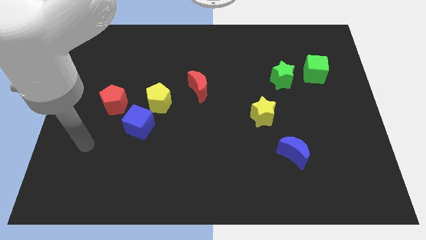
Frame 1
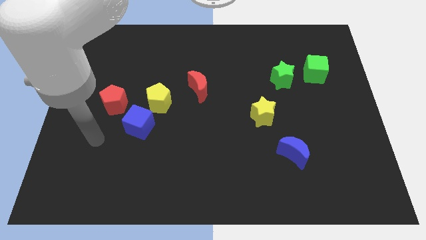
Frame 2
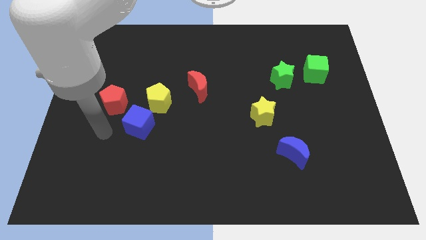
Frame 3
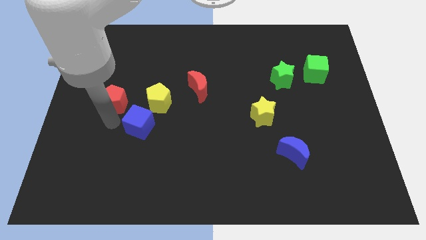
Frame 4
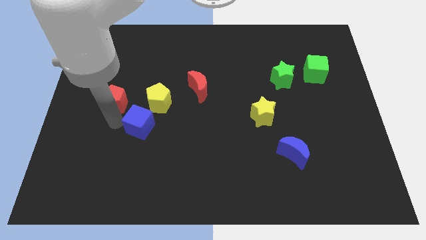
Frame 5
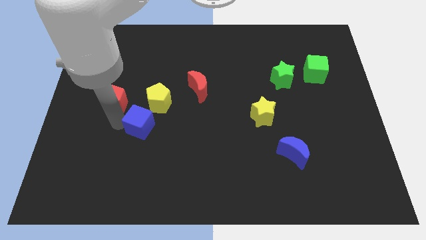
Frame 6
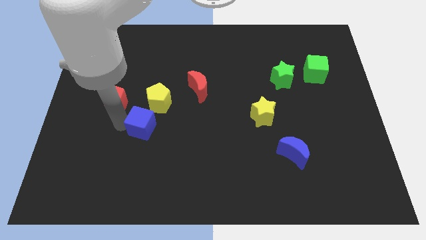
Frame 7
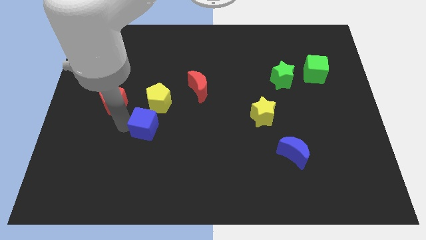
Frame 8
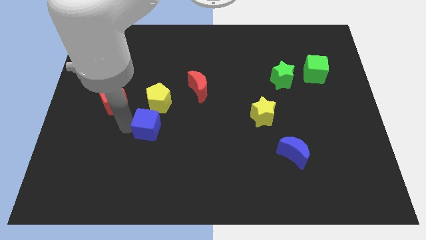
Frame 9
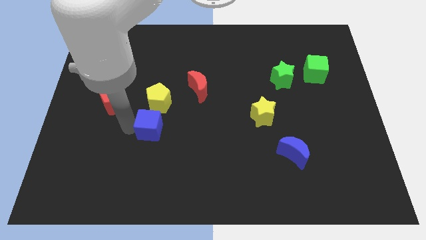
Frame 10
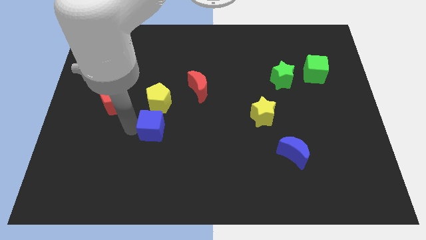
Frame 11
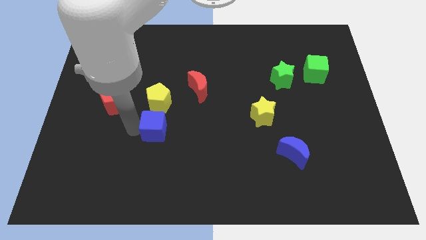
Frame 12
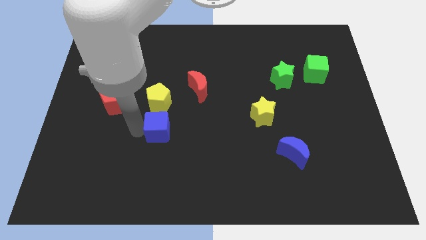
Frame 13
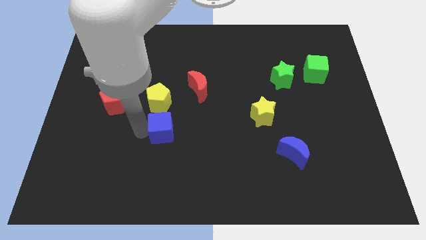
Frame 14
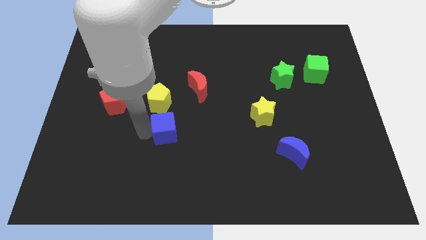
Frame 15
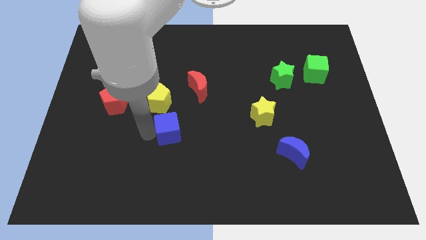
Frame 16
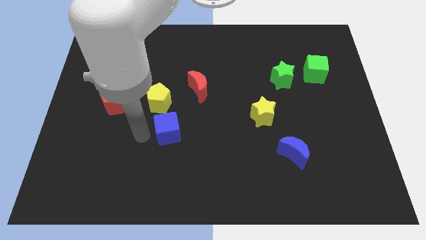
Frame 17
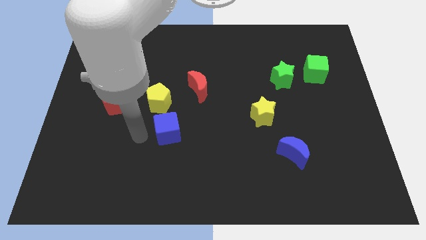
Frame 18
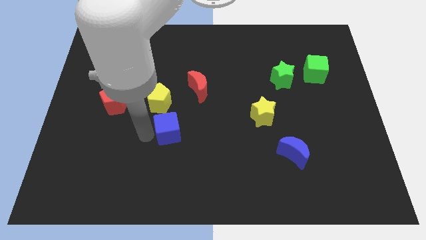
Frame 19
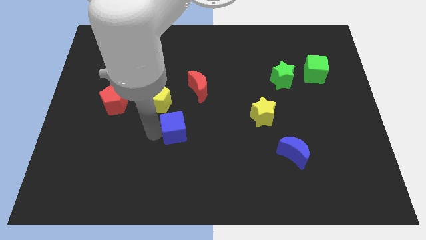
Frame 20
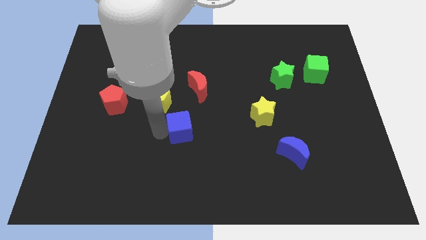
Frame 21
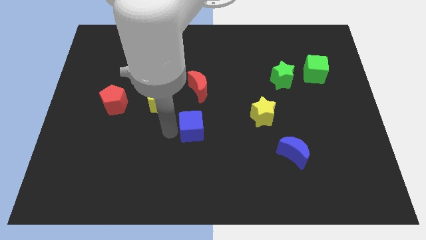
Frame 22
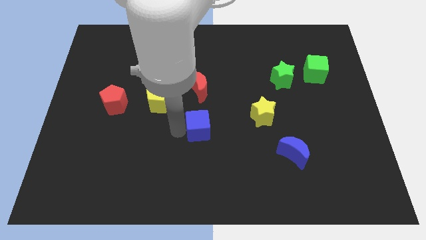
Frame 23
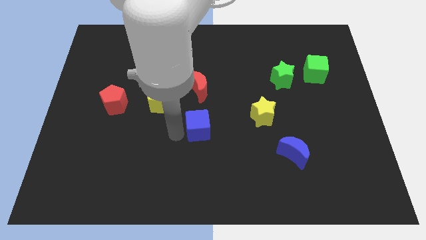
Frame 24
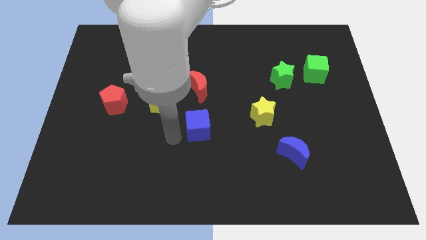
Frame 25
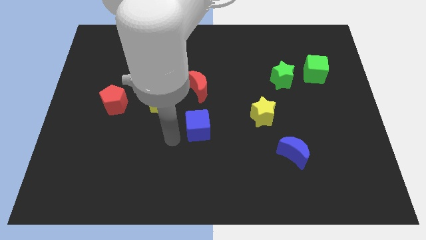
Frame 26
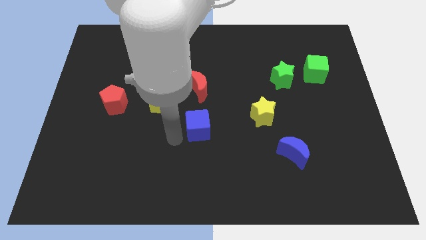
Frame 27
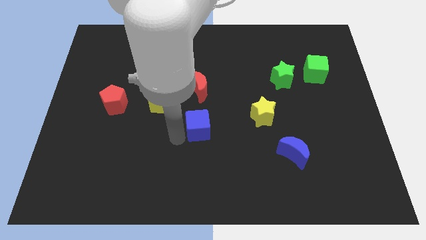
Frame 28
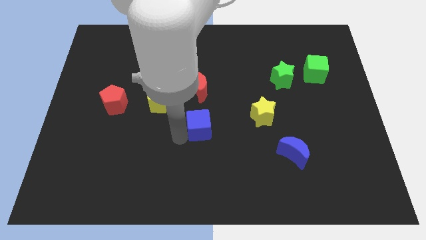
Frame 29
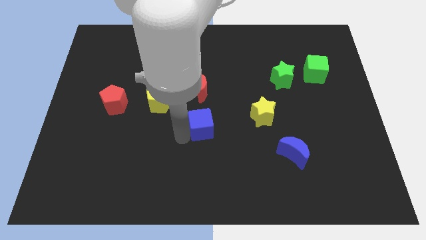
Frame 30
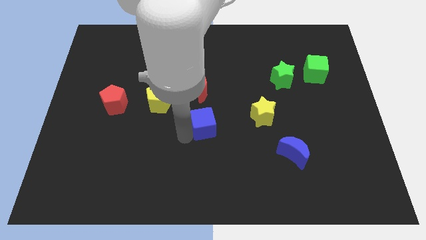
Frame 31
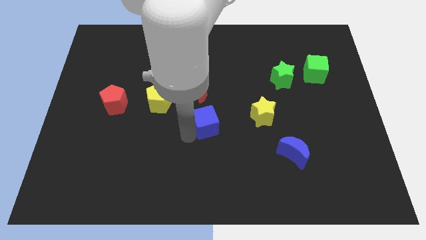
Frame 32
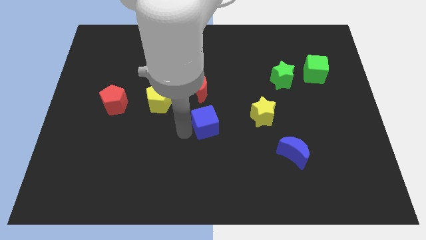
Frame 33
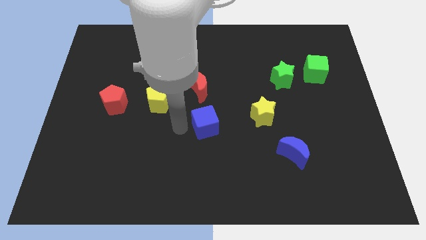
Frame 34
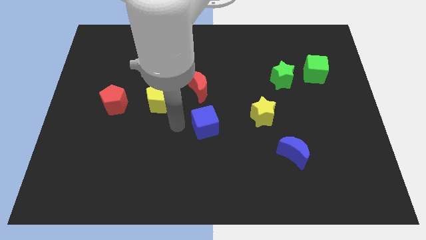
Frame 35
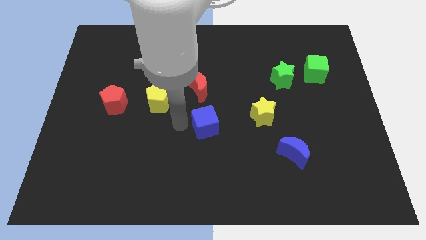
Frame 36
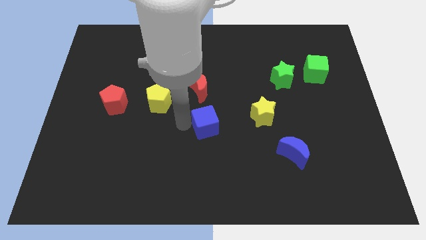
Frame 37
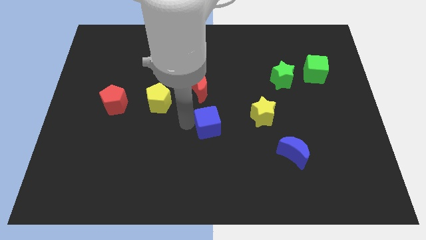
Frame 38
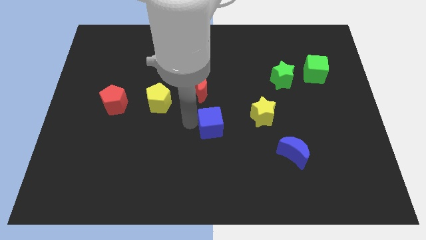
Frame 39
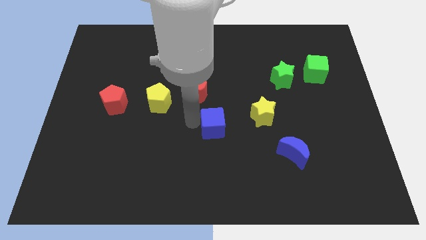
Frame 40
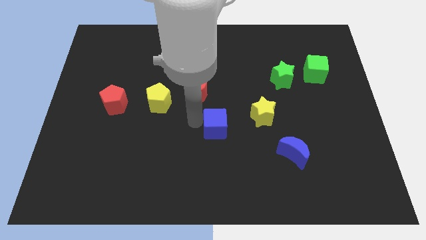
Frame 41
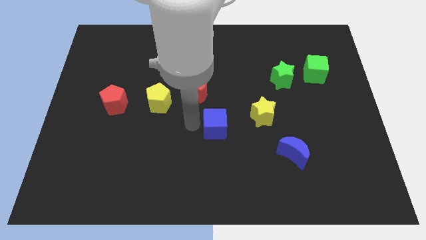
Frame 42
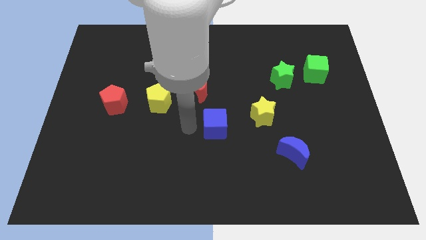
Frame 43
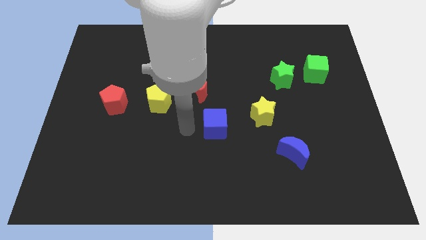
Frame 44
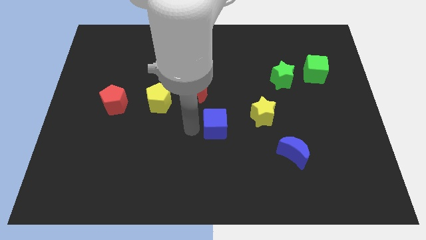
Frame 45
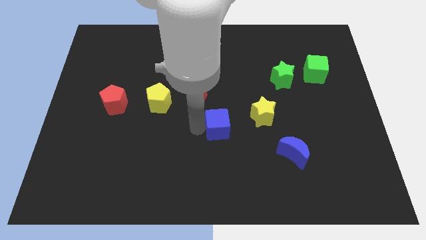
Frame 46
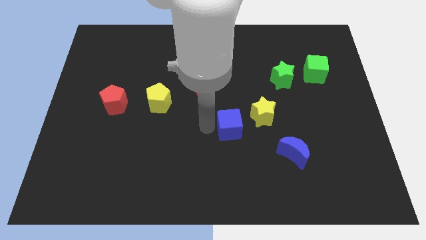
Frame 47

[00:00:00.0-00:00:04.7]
move the blue cube right

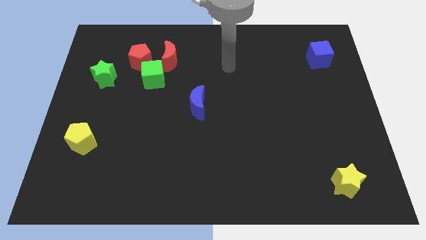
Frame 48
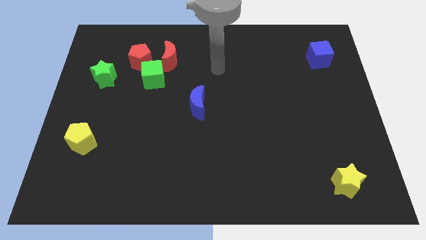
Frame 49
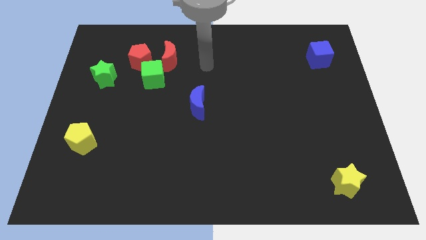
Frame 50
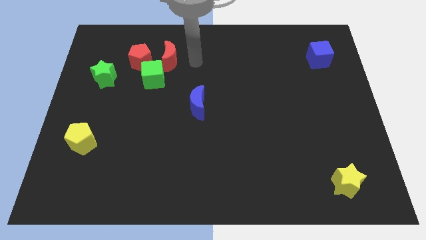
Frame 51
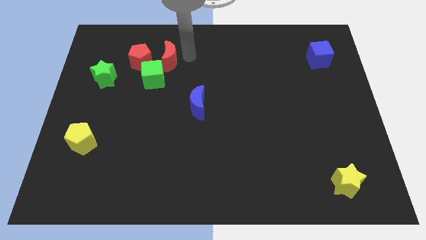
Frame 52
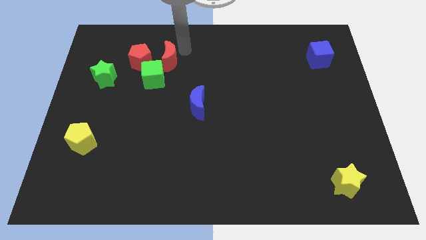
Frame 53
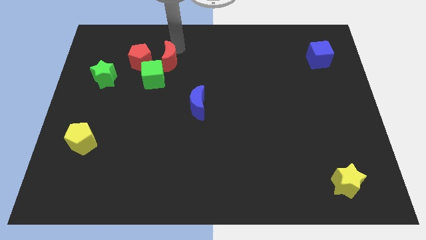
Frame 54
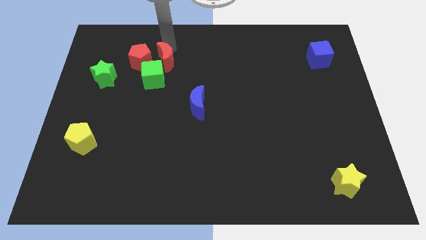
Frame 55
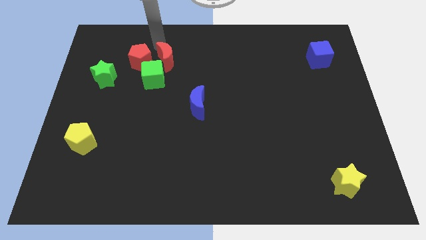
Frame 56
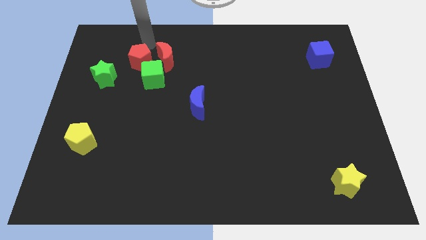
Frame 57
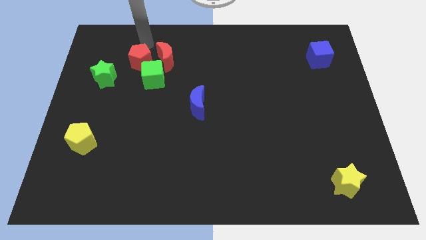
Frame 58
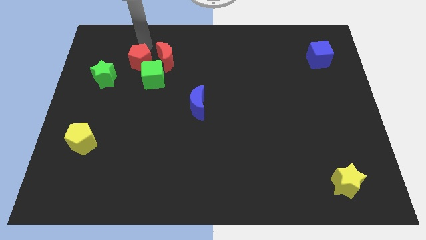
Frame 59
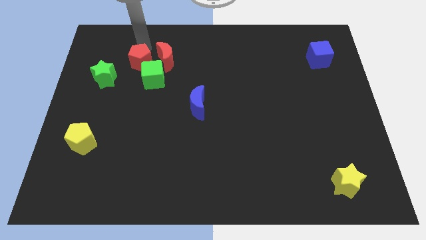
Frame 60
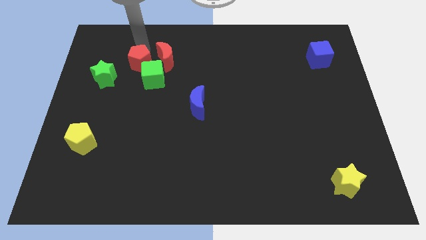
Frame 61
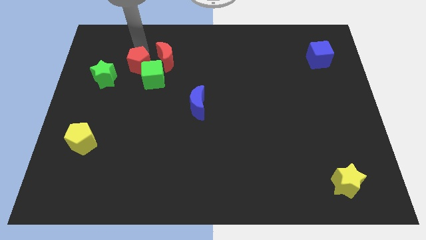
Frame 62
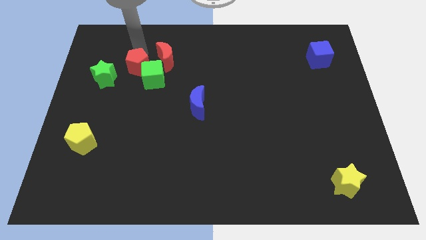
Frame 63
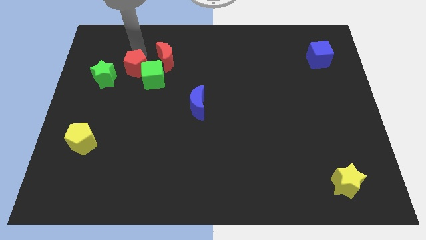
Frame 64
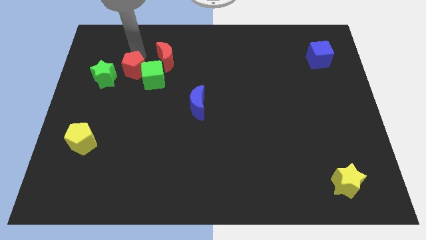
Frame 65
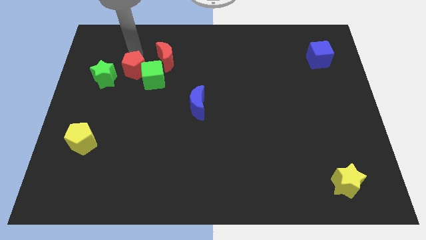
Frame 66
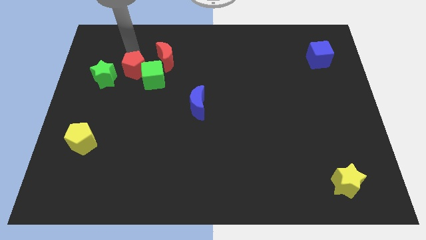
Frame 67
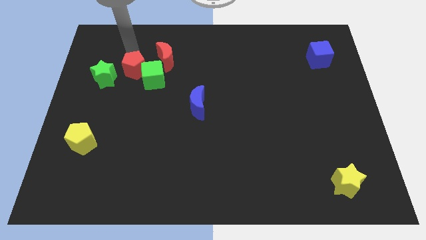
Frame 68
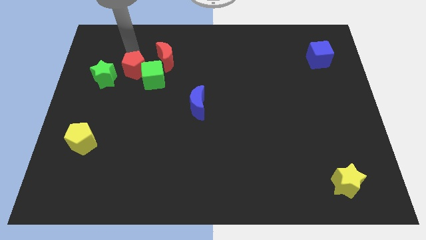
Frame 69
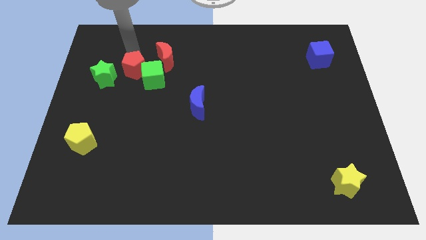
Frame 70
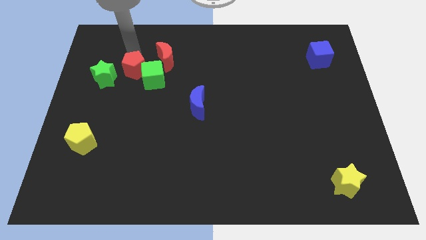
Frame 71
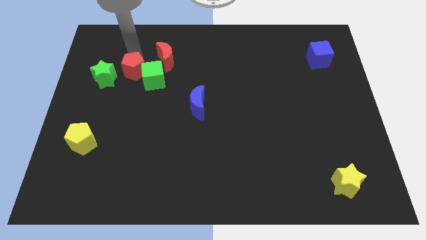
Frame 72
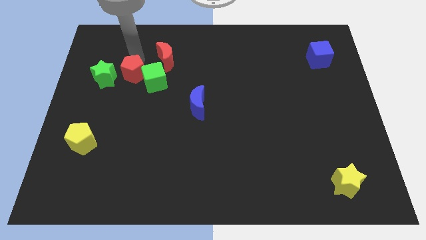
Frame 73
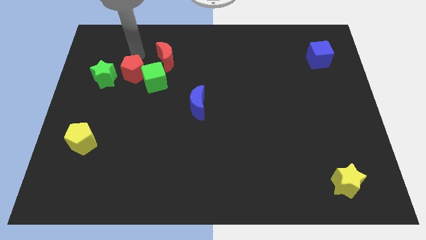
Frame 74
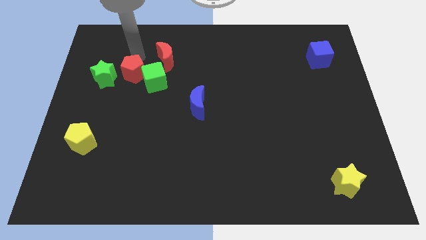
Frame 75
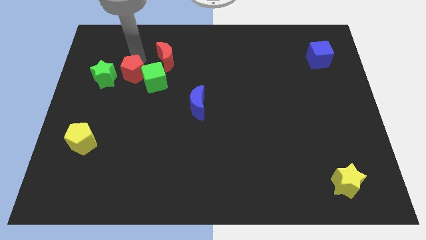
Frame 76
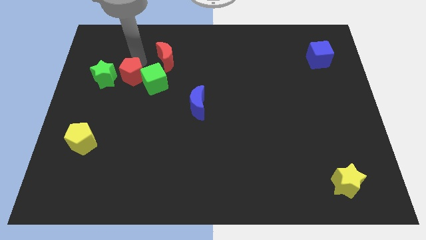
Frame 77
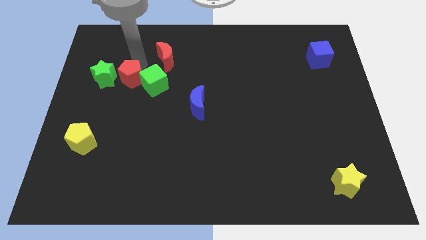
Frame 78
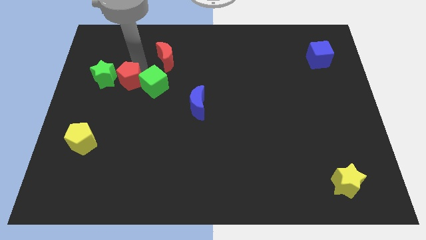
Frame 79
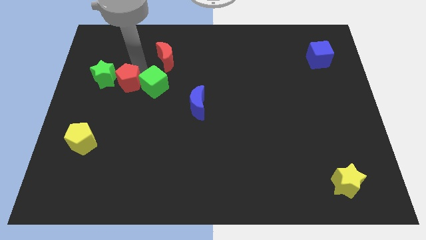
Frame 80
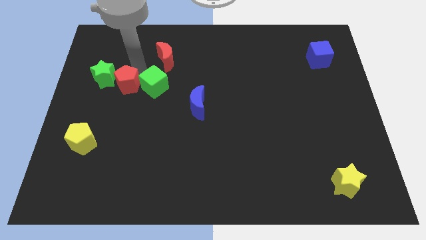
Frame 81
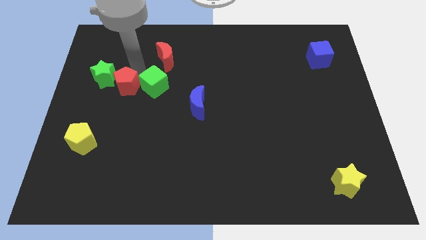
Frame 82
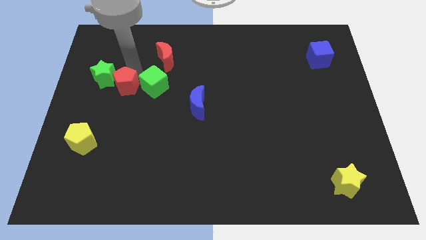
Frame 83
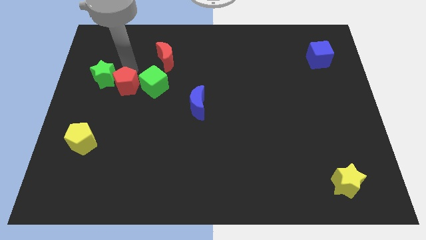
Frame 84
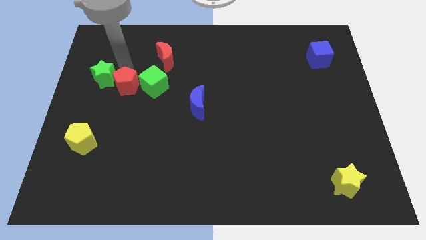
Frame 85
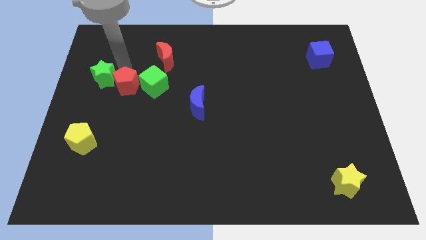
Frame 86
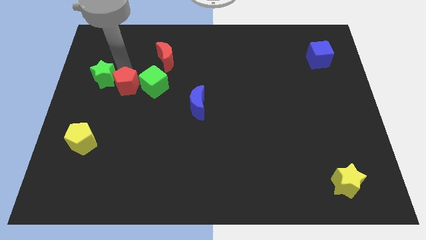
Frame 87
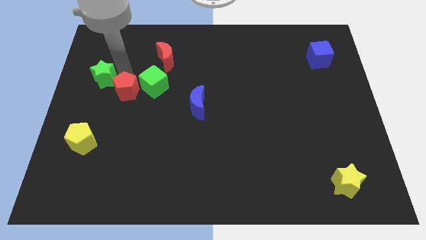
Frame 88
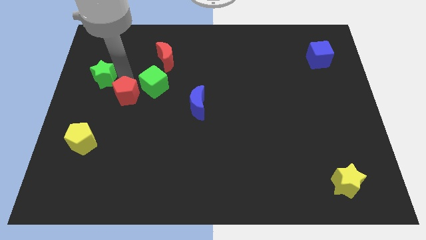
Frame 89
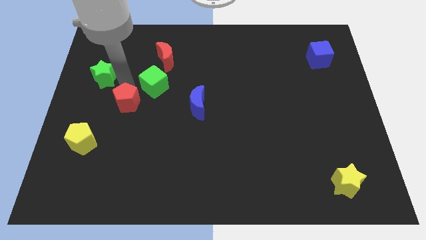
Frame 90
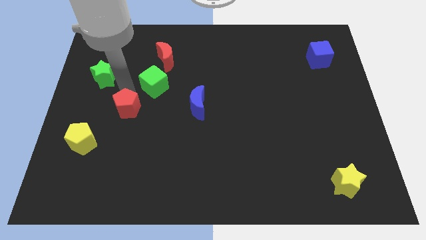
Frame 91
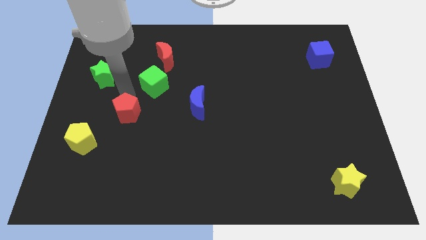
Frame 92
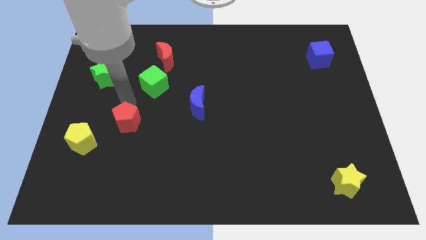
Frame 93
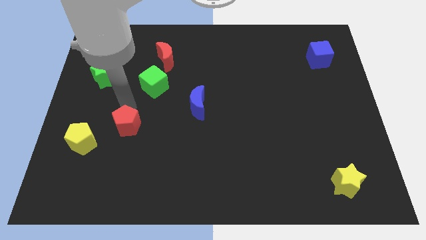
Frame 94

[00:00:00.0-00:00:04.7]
push the red pentagon down
